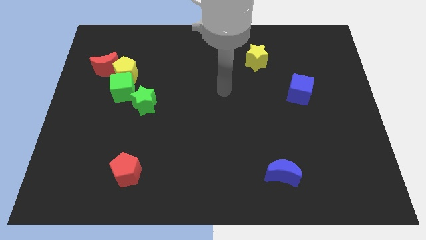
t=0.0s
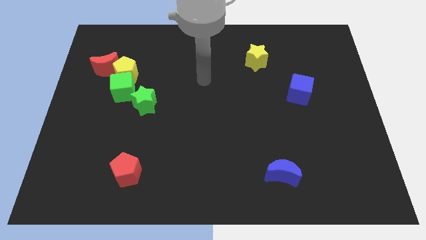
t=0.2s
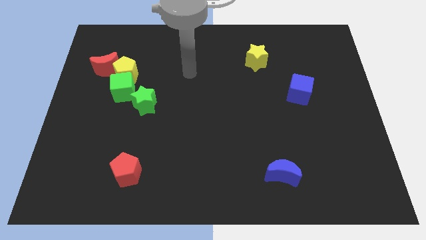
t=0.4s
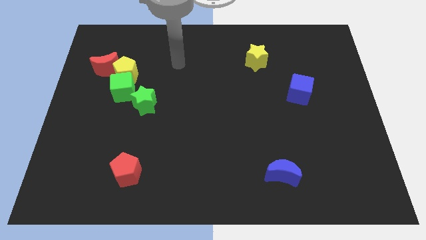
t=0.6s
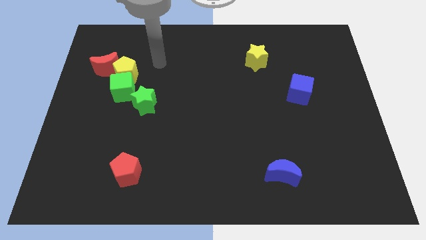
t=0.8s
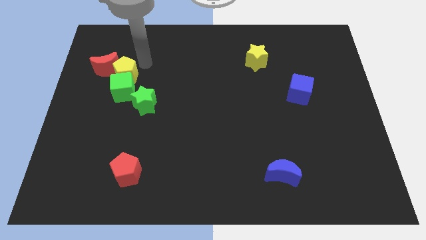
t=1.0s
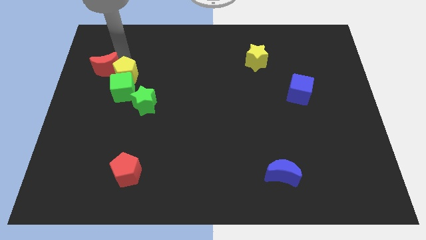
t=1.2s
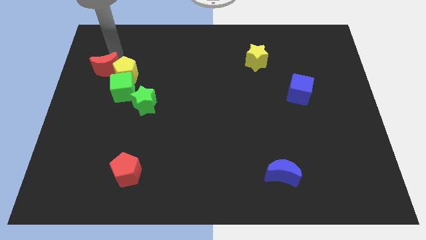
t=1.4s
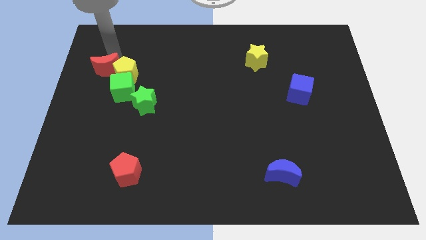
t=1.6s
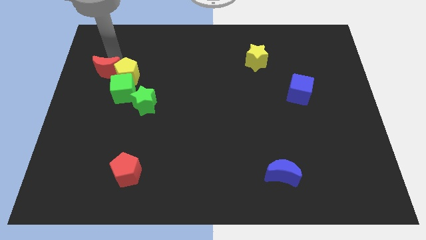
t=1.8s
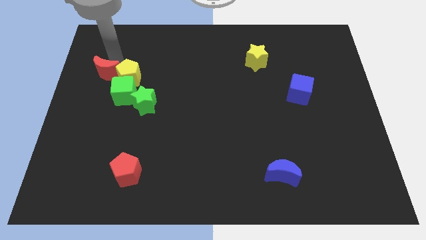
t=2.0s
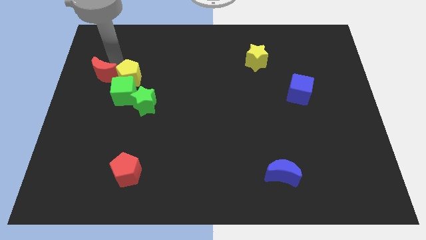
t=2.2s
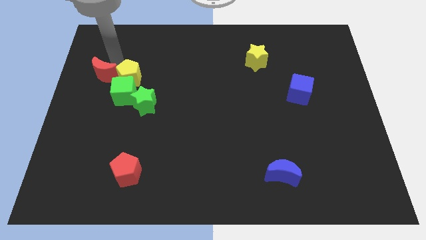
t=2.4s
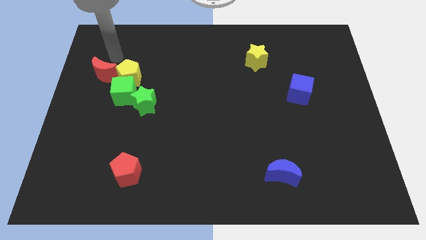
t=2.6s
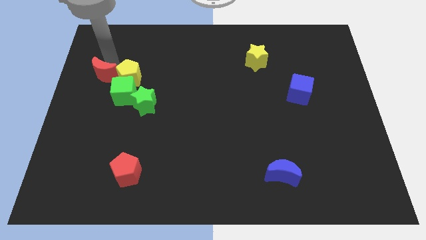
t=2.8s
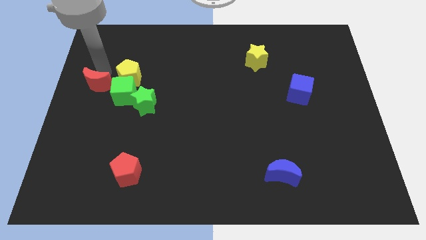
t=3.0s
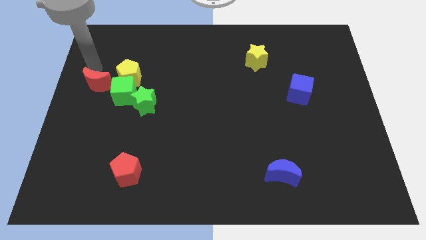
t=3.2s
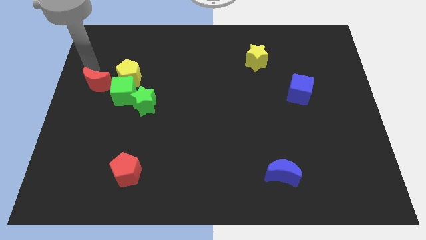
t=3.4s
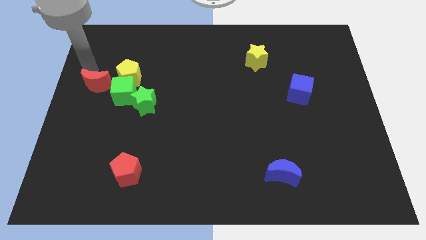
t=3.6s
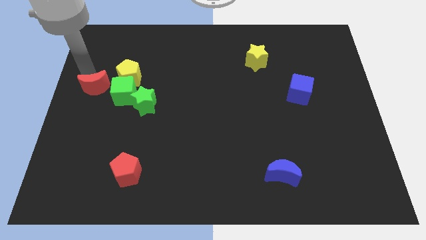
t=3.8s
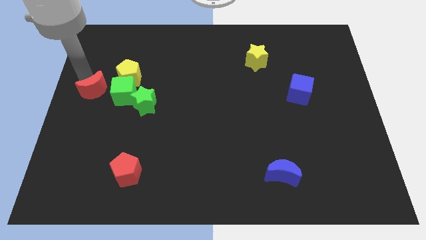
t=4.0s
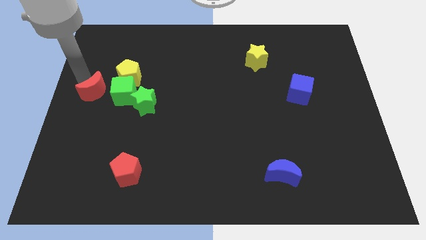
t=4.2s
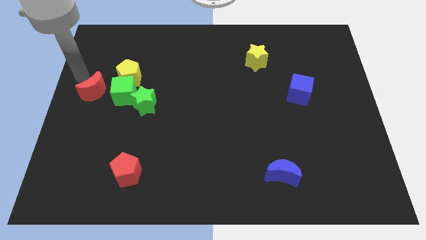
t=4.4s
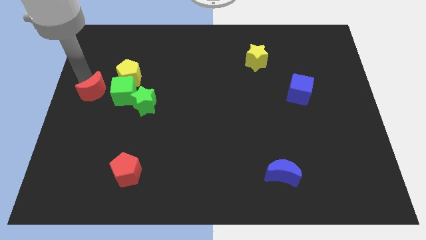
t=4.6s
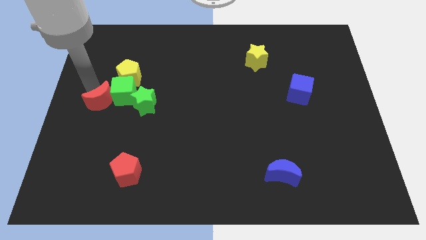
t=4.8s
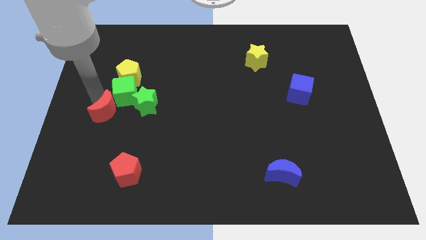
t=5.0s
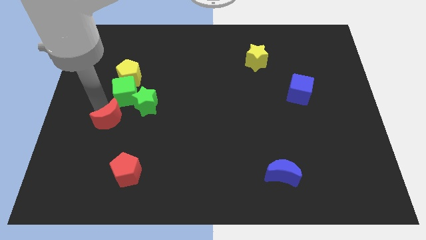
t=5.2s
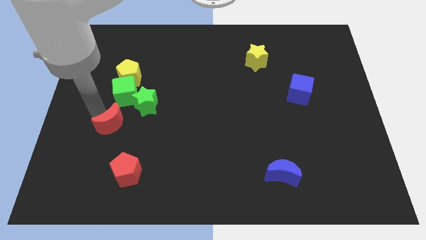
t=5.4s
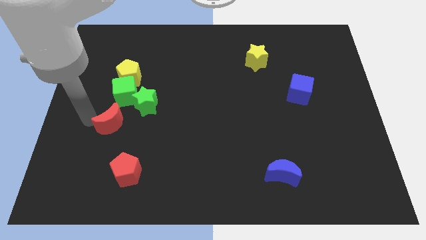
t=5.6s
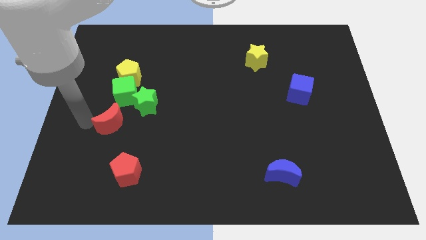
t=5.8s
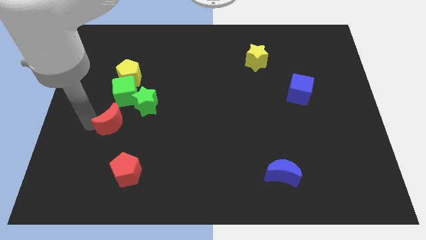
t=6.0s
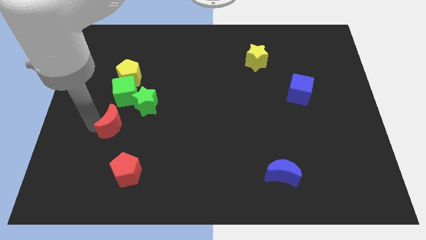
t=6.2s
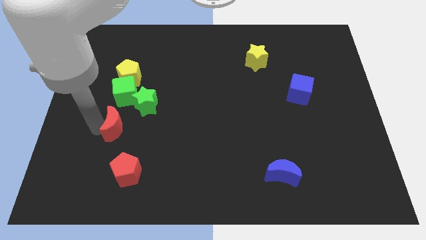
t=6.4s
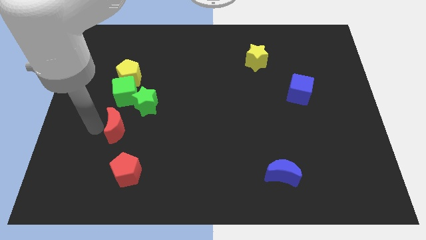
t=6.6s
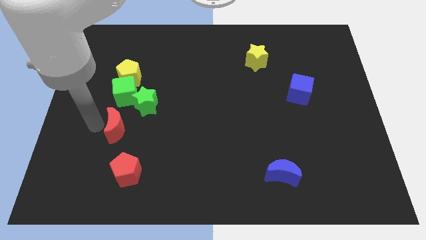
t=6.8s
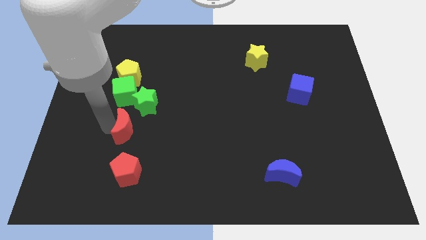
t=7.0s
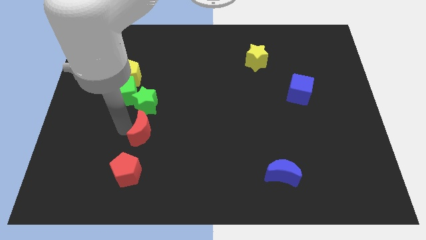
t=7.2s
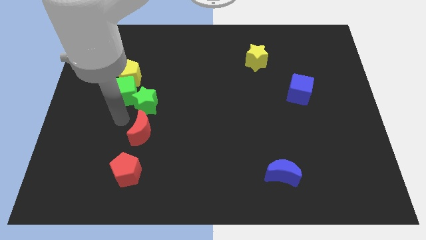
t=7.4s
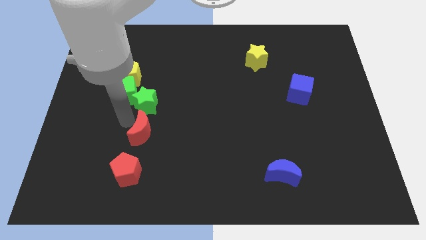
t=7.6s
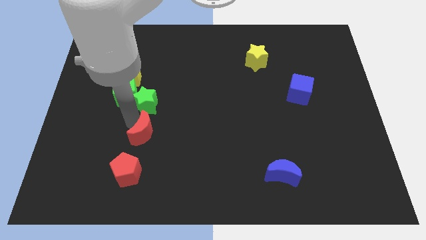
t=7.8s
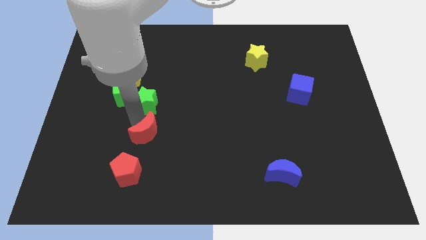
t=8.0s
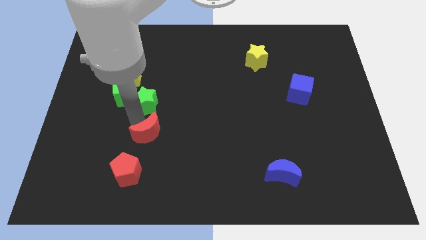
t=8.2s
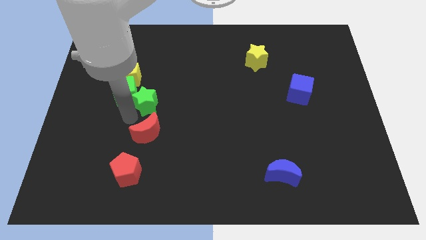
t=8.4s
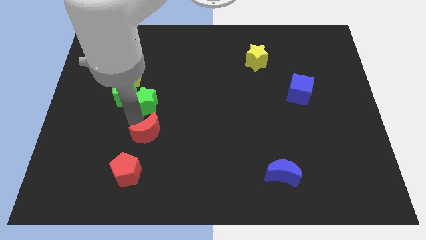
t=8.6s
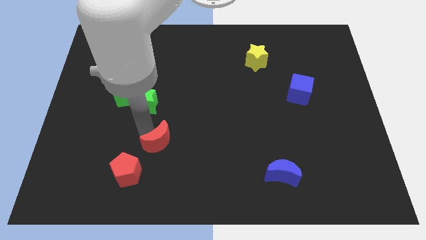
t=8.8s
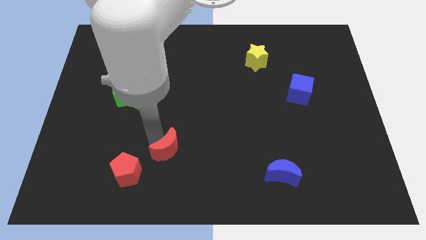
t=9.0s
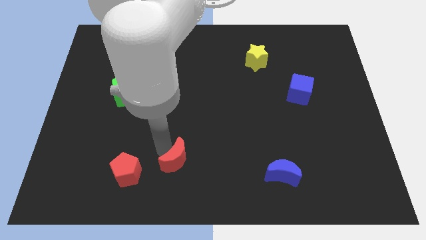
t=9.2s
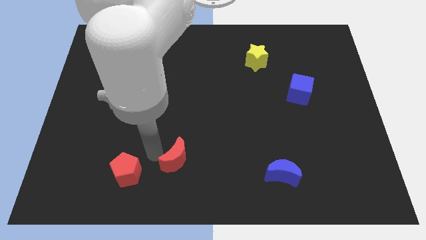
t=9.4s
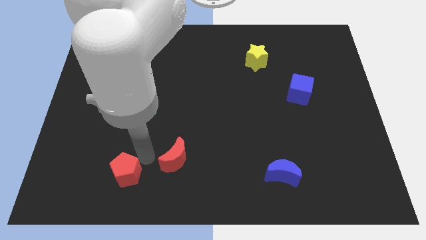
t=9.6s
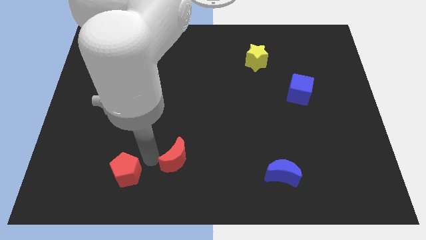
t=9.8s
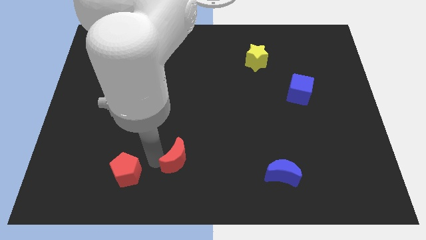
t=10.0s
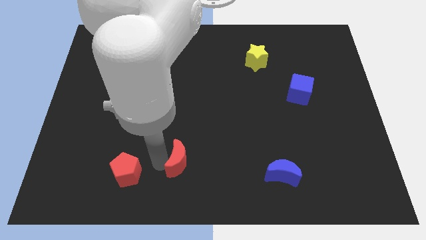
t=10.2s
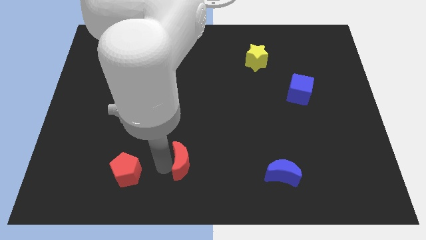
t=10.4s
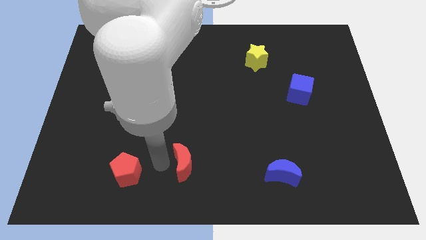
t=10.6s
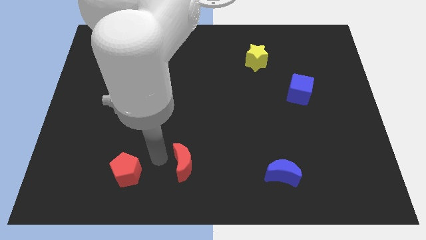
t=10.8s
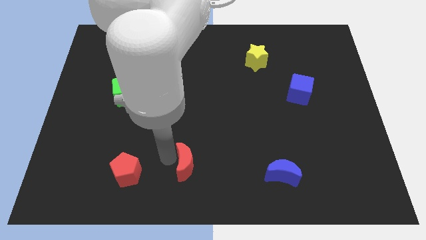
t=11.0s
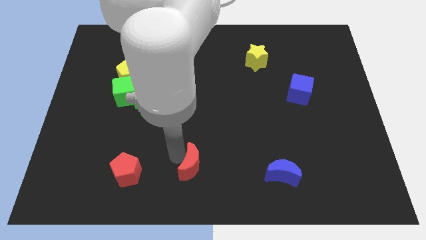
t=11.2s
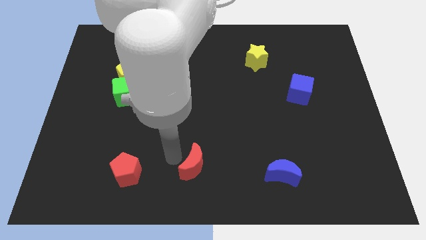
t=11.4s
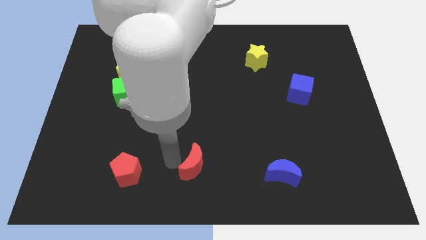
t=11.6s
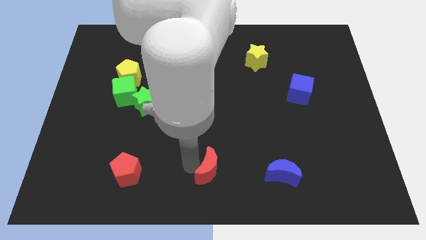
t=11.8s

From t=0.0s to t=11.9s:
push the red moon just left of the blue moon

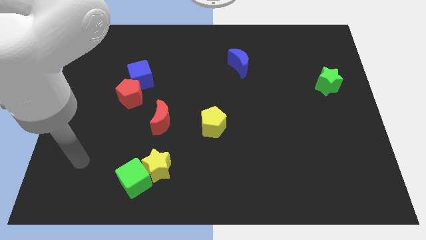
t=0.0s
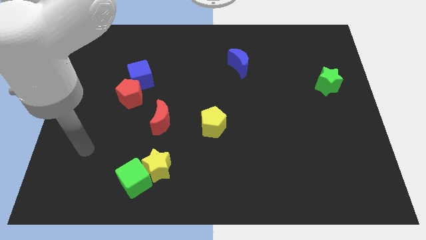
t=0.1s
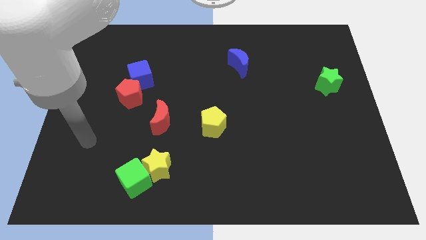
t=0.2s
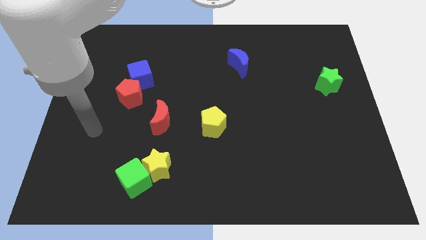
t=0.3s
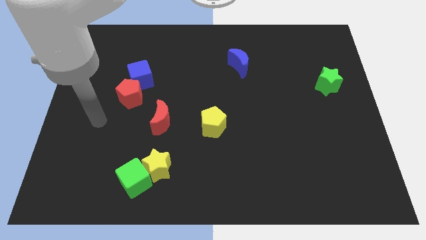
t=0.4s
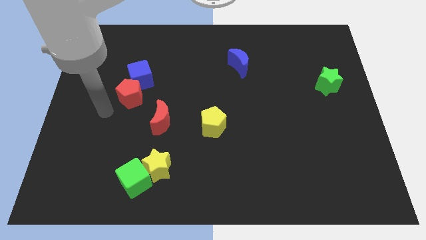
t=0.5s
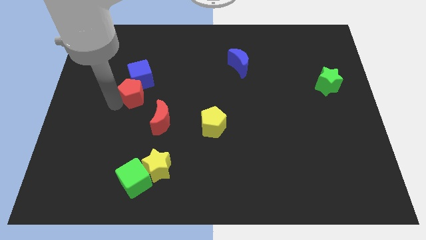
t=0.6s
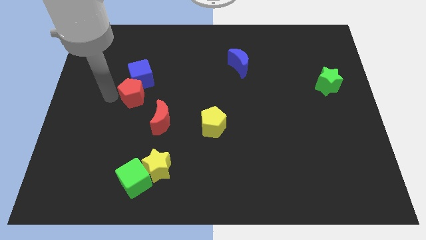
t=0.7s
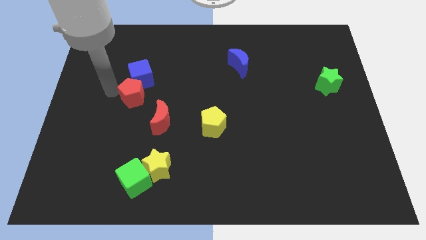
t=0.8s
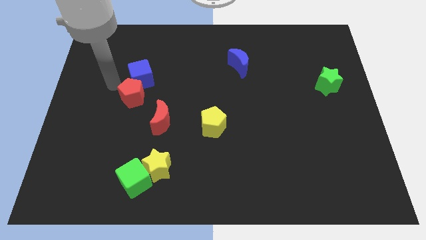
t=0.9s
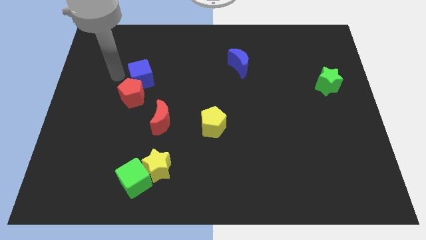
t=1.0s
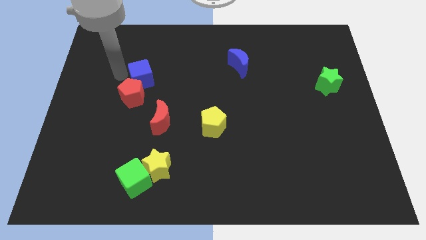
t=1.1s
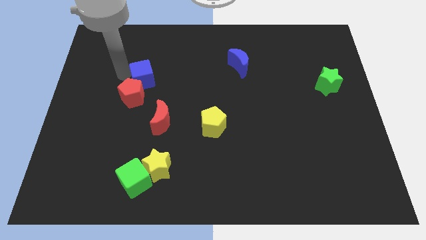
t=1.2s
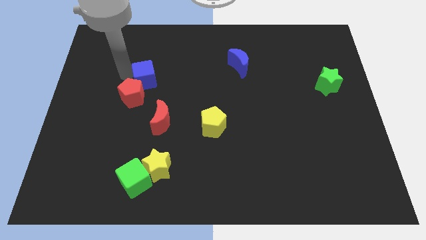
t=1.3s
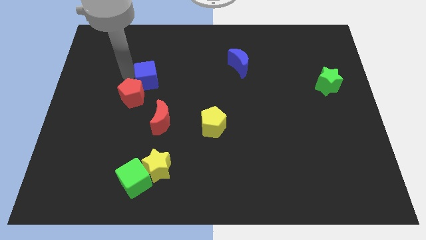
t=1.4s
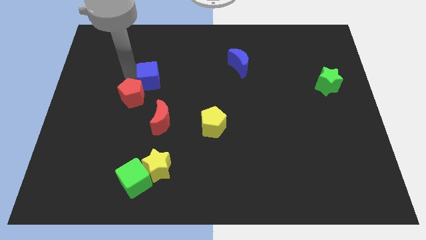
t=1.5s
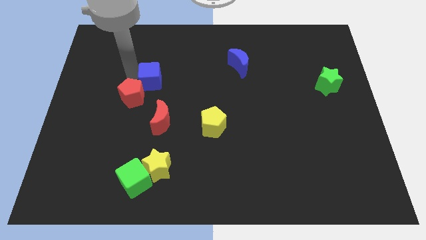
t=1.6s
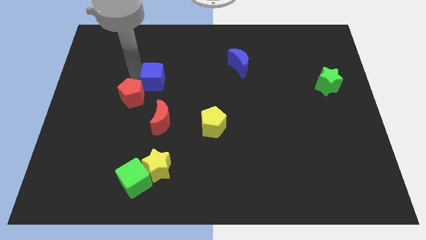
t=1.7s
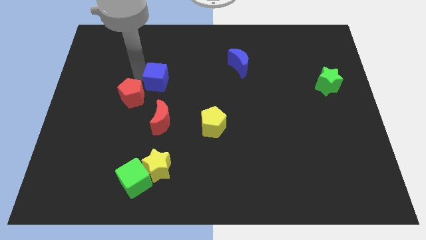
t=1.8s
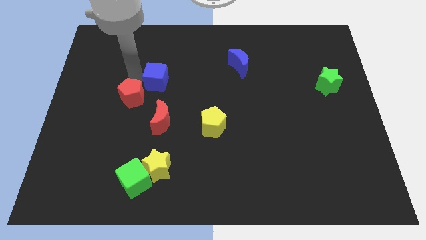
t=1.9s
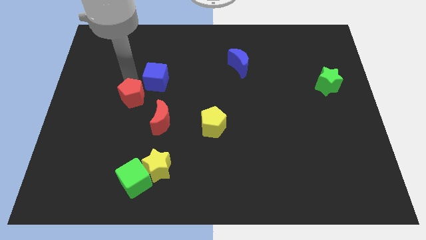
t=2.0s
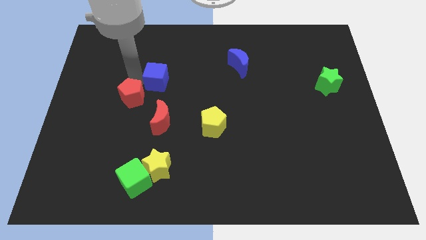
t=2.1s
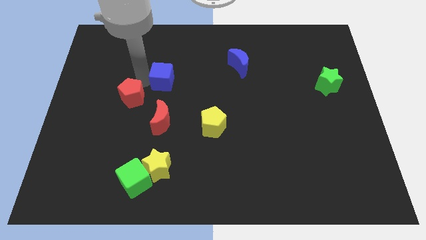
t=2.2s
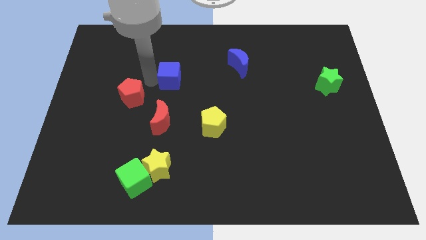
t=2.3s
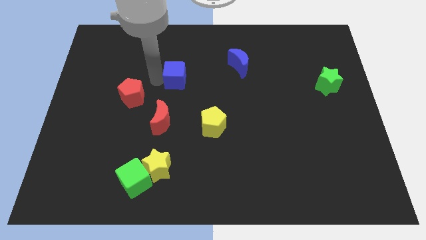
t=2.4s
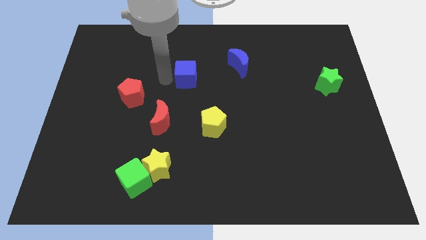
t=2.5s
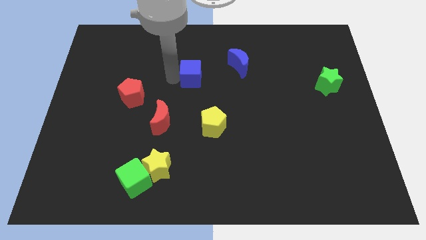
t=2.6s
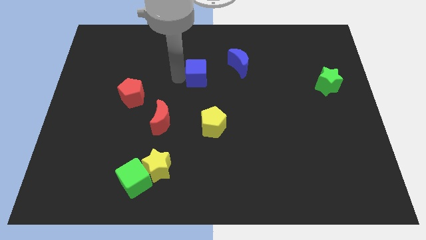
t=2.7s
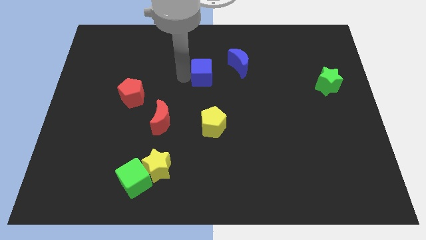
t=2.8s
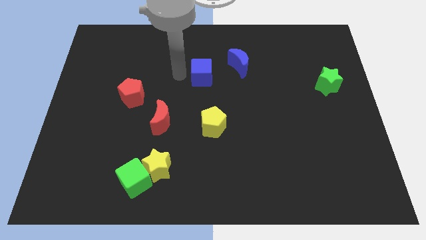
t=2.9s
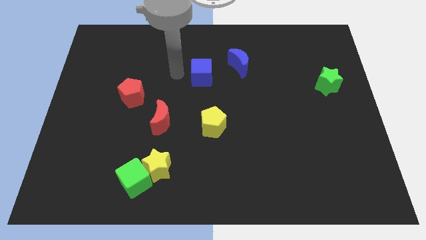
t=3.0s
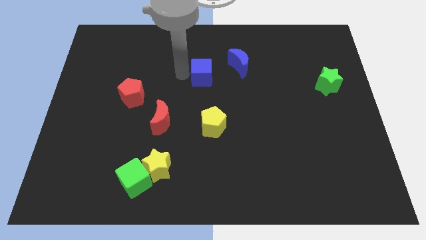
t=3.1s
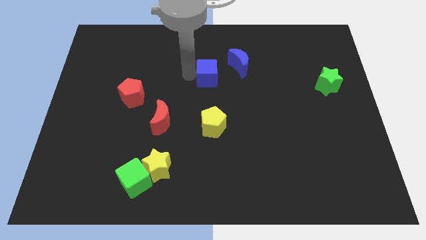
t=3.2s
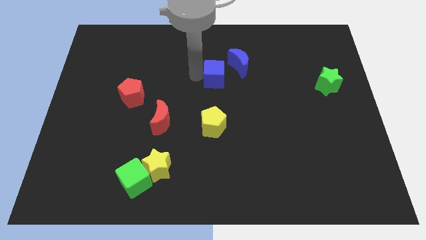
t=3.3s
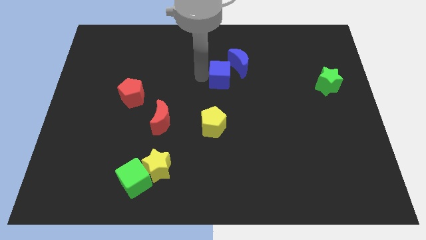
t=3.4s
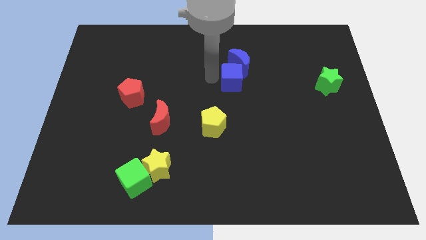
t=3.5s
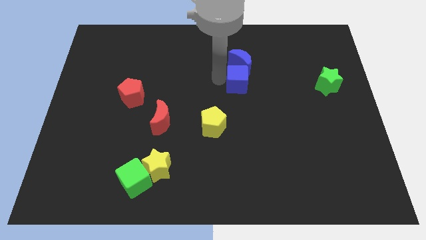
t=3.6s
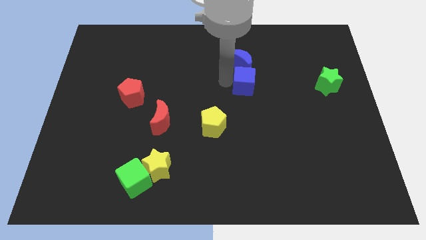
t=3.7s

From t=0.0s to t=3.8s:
slide the blue cube diagonally down and to the right of the blue moon
